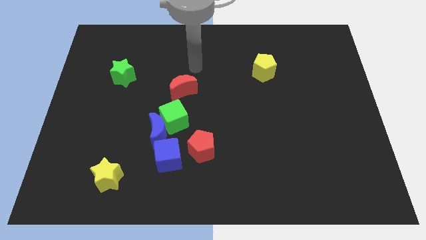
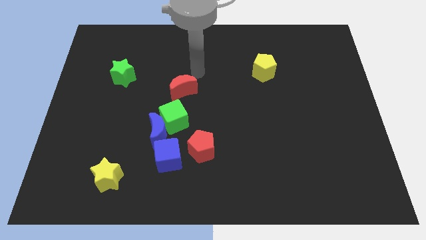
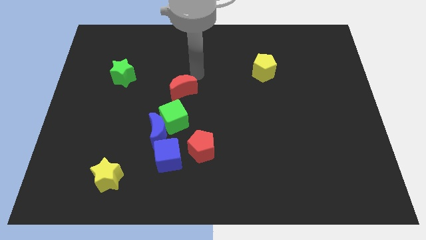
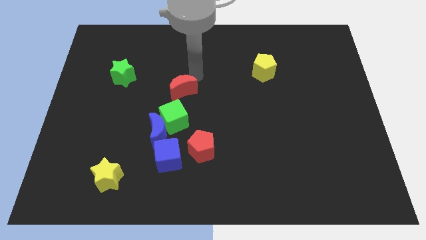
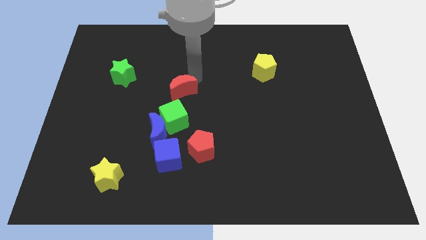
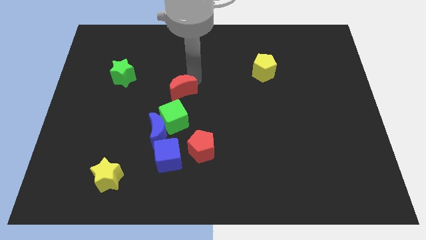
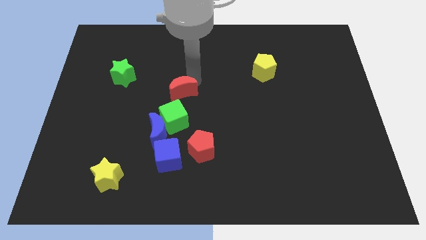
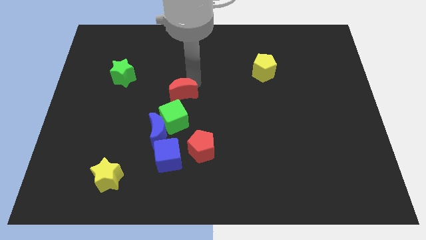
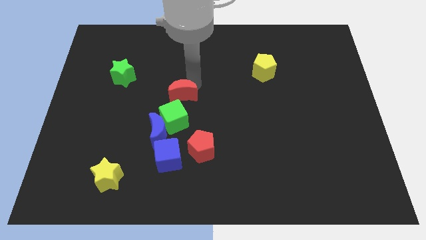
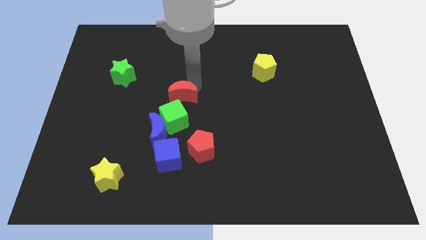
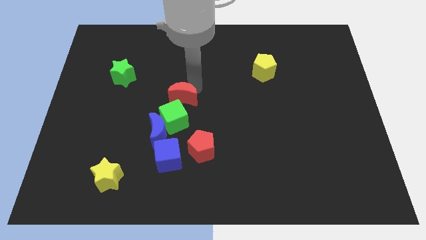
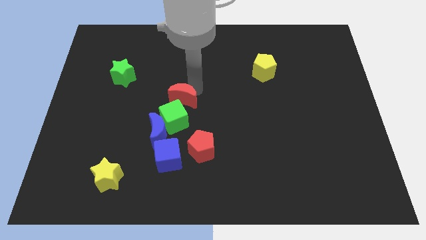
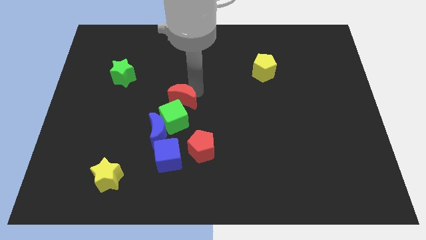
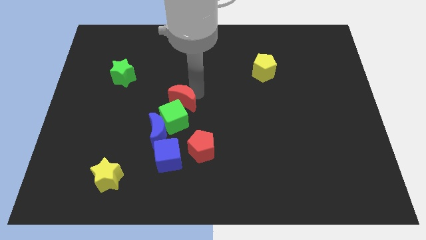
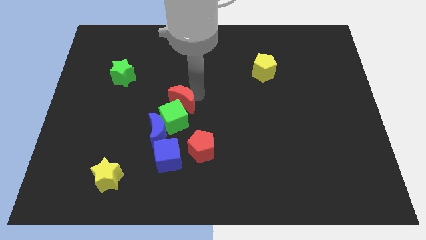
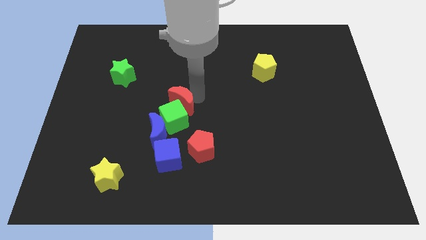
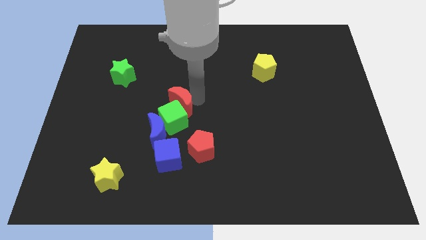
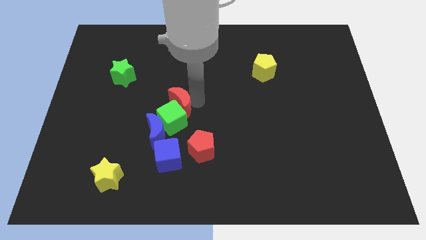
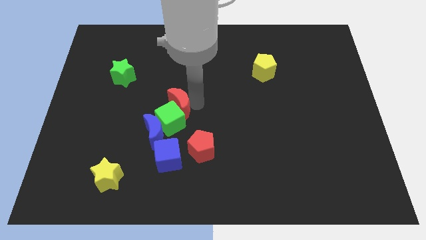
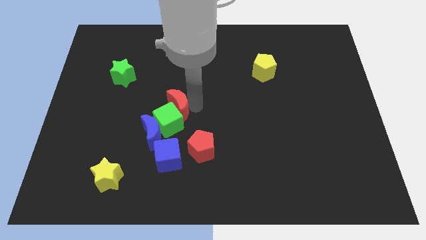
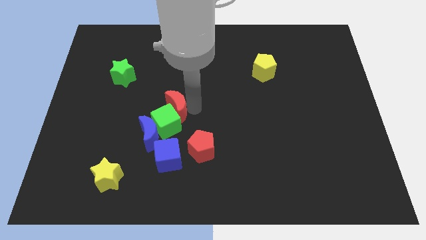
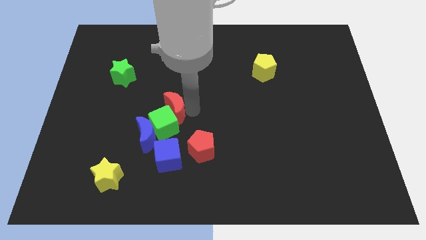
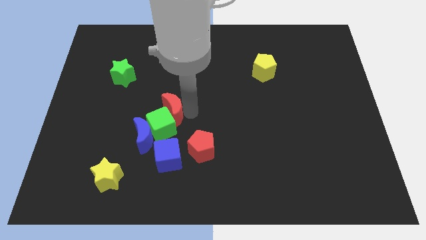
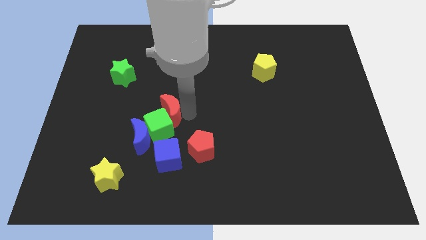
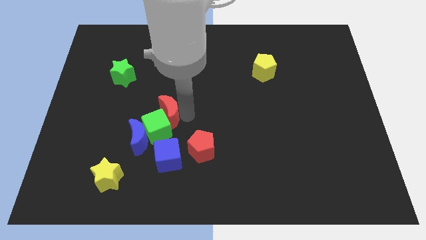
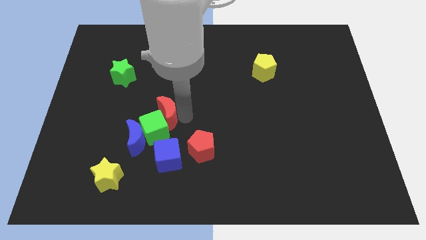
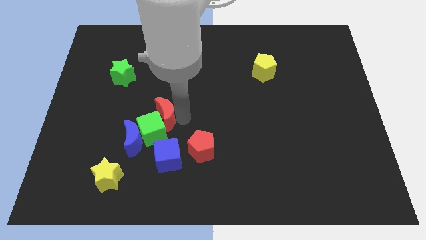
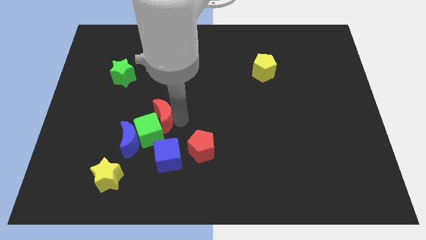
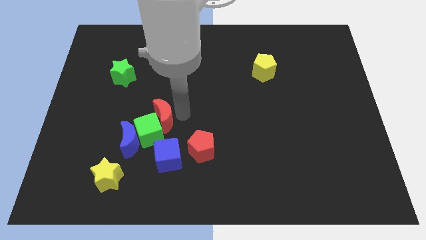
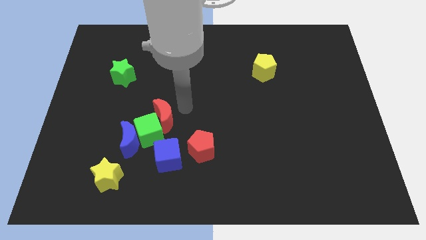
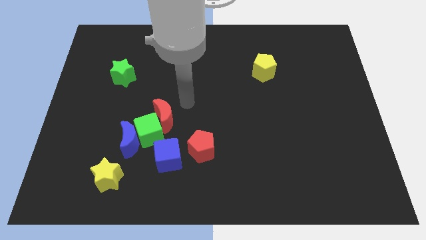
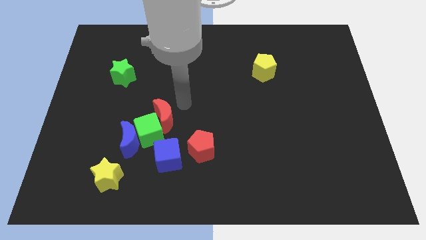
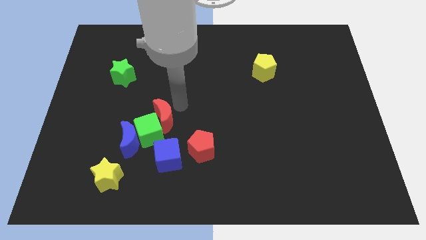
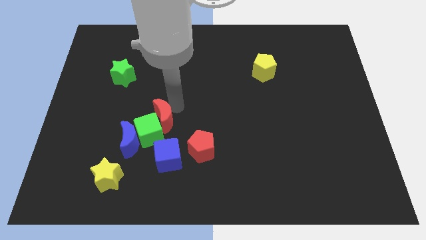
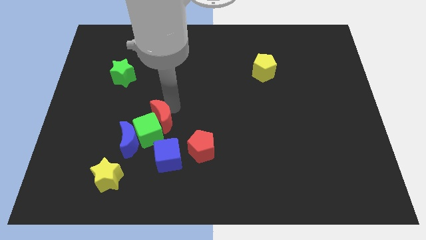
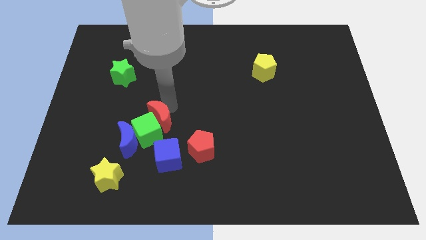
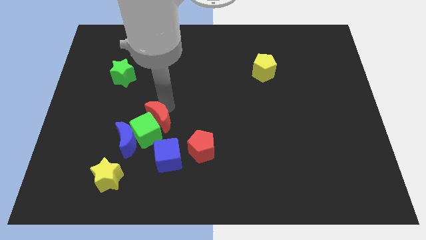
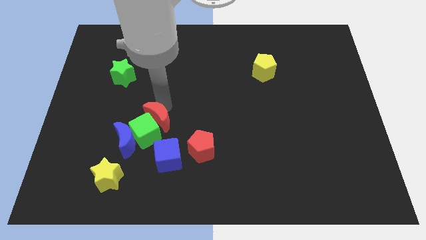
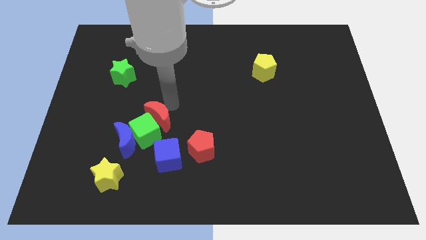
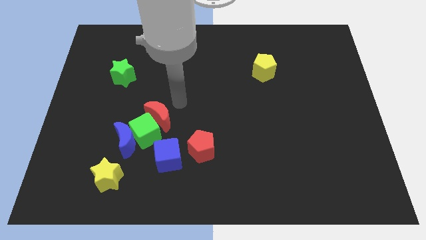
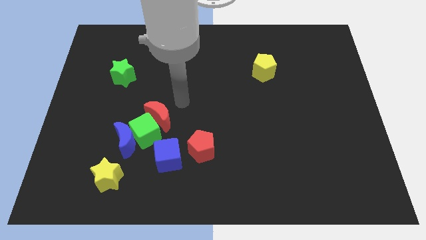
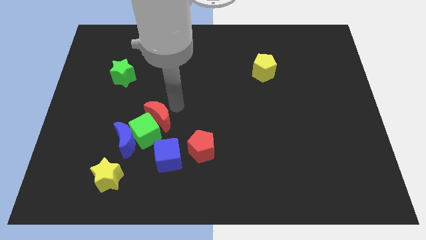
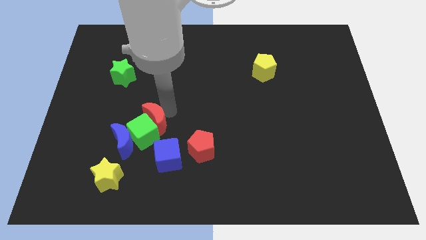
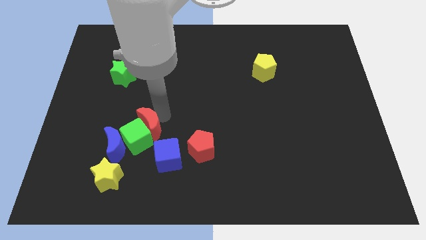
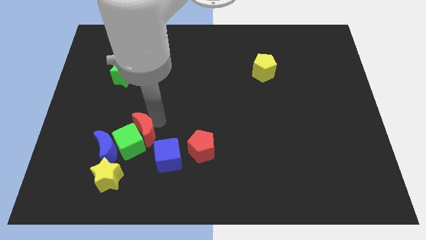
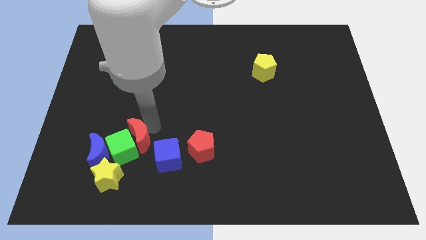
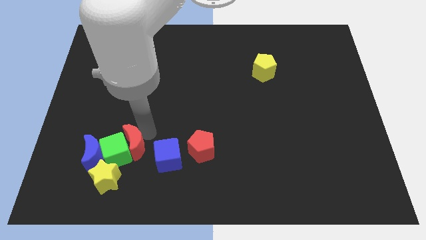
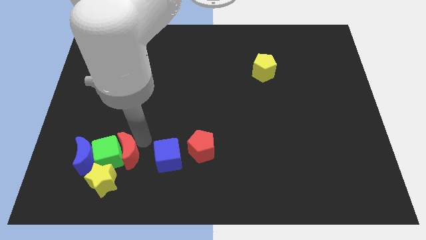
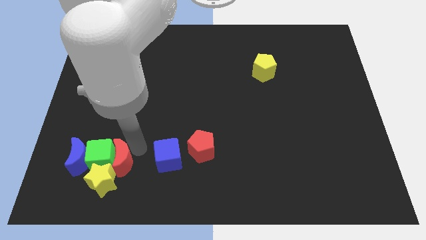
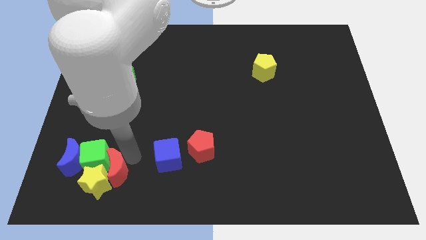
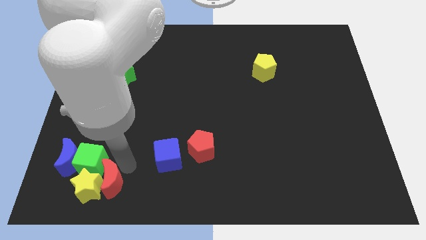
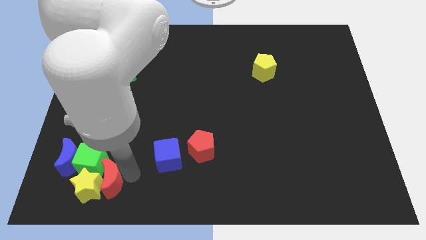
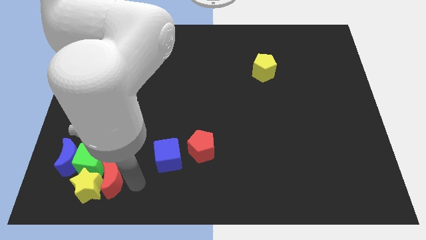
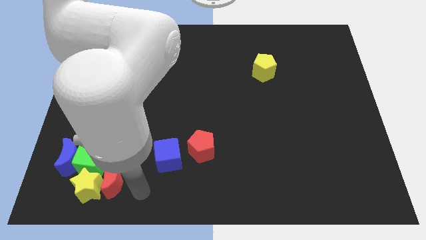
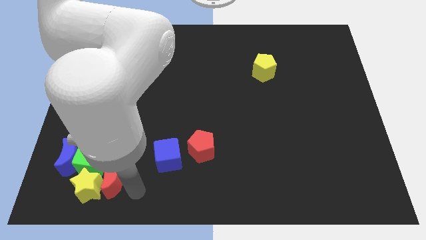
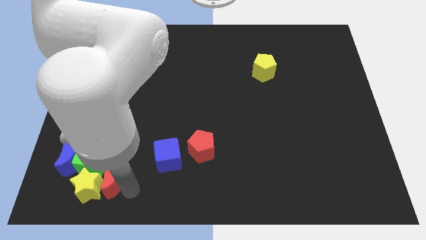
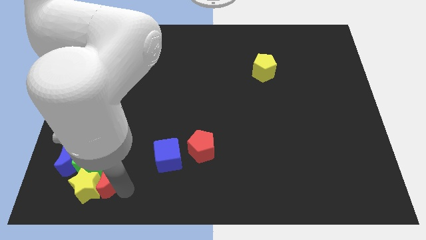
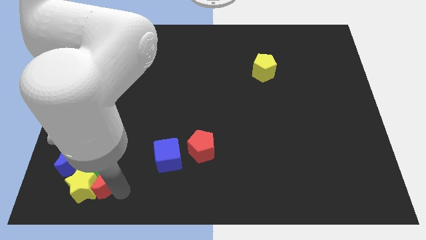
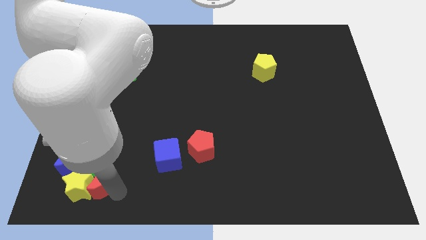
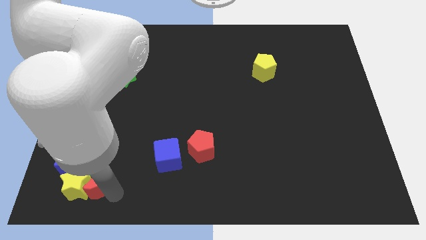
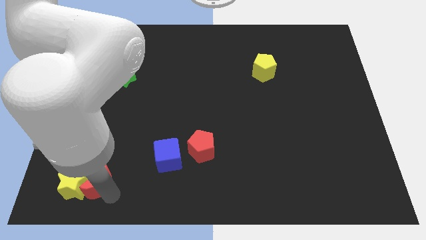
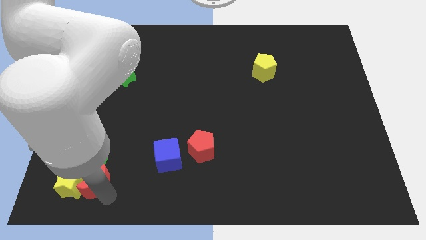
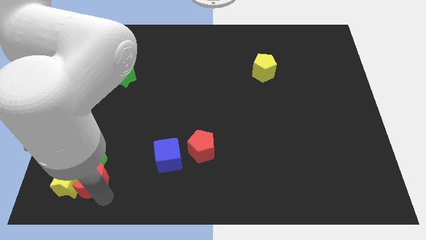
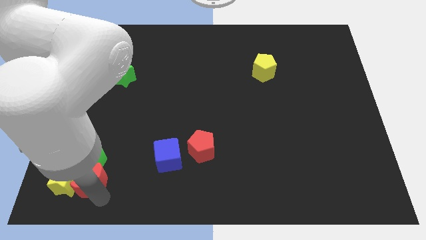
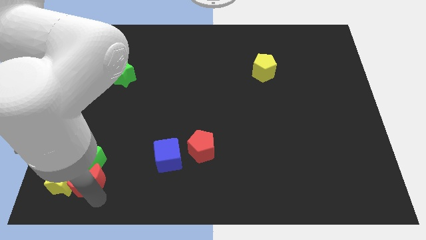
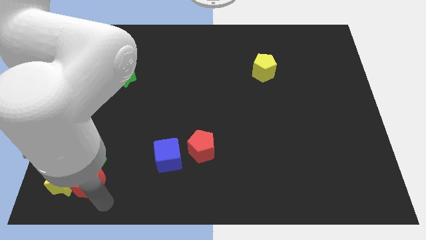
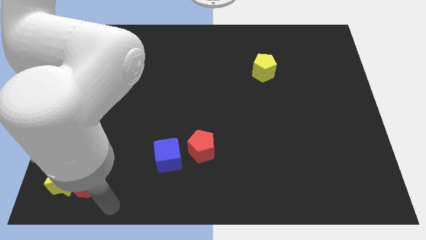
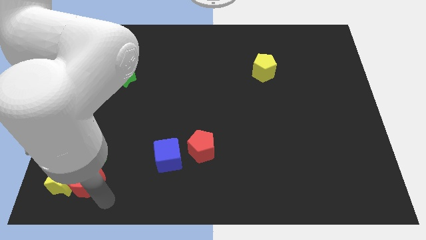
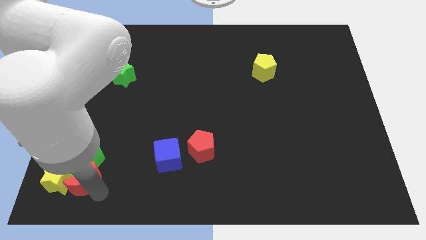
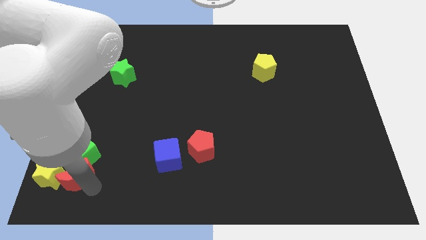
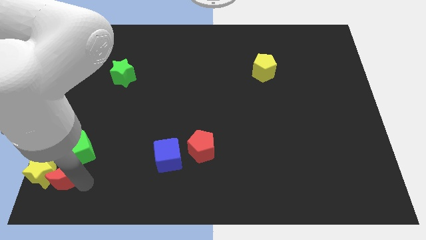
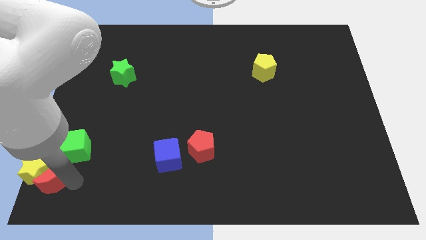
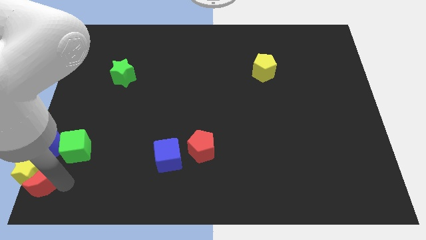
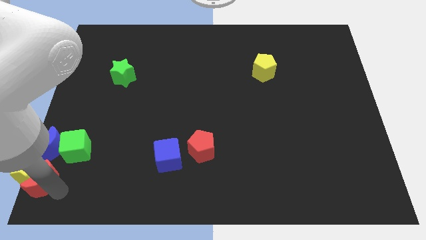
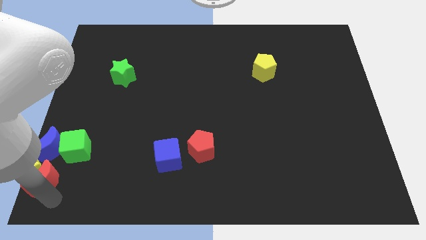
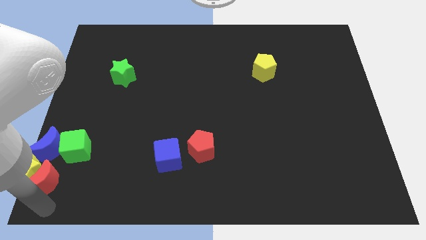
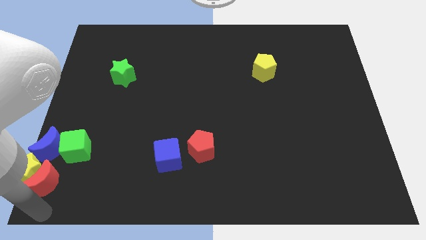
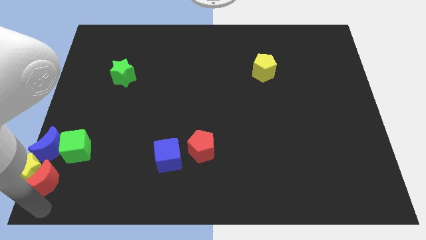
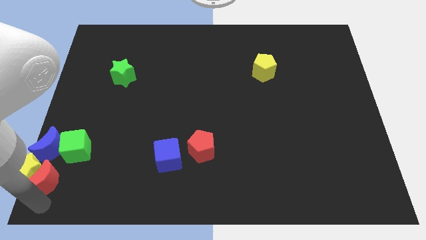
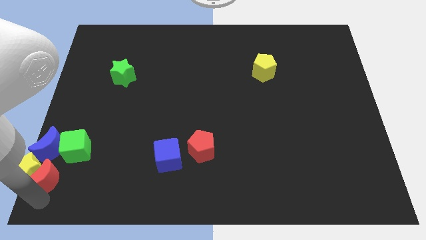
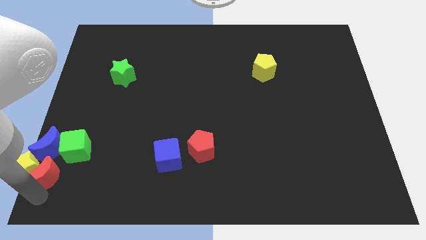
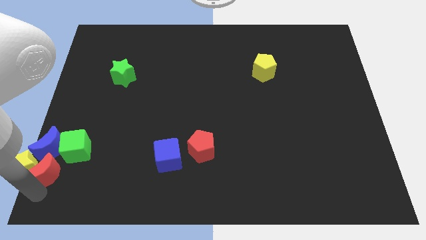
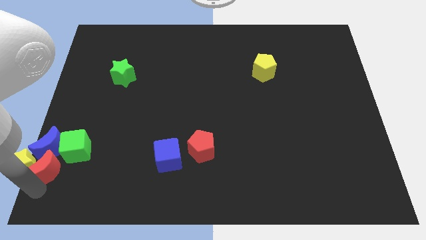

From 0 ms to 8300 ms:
move the red moon to the blue moon
